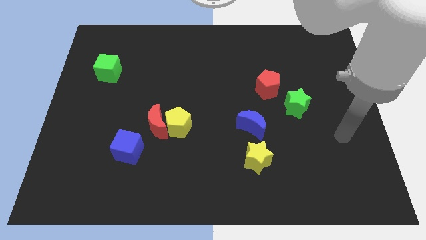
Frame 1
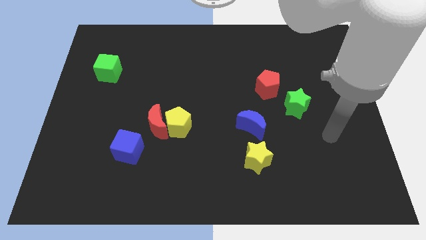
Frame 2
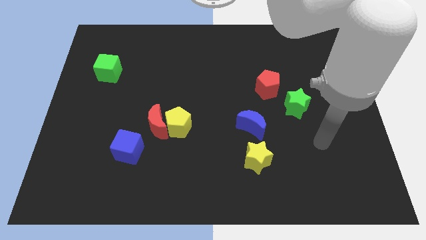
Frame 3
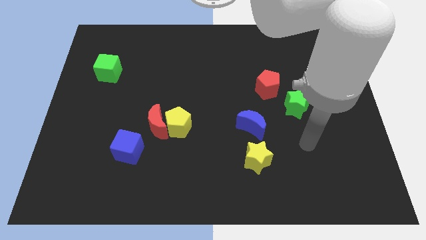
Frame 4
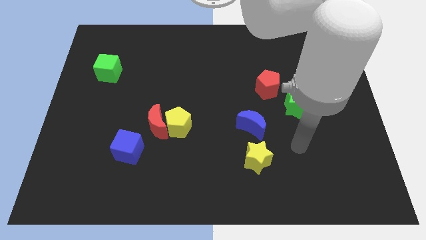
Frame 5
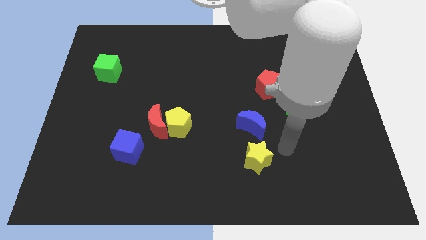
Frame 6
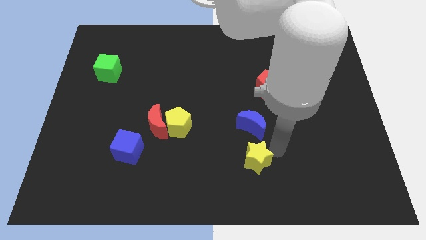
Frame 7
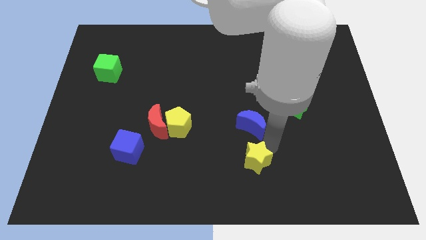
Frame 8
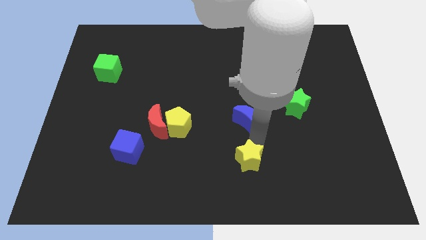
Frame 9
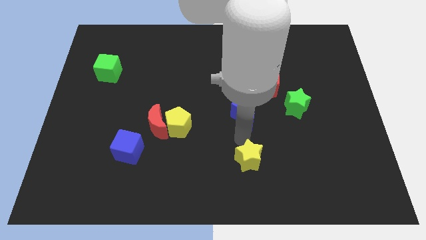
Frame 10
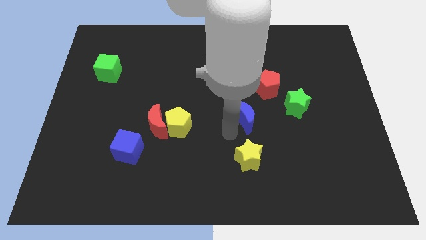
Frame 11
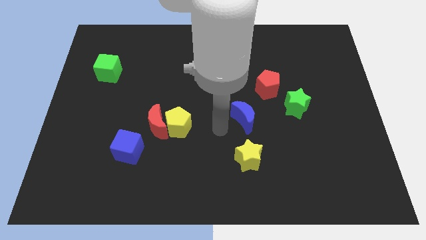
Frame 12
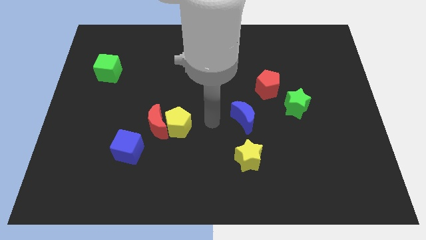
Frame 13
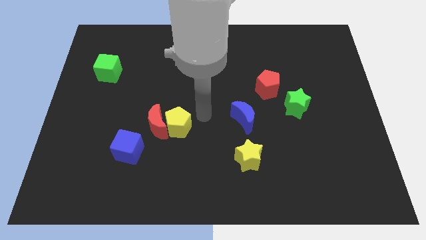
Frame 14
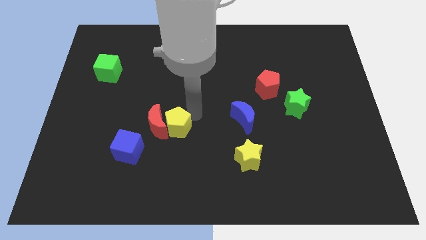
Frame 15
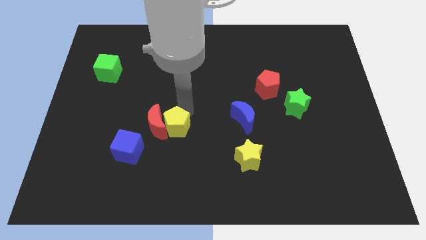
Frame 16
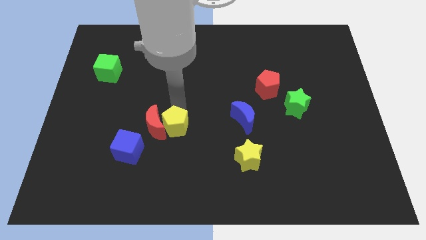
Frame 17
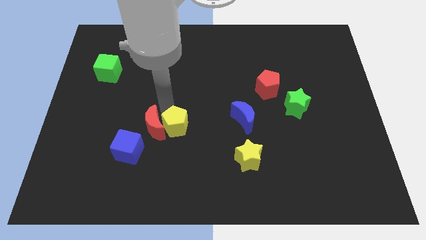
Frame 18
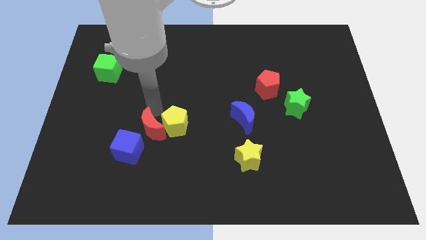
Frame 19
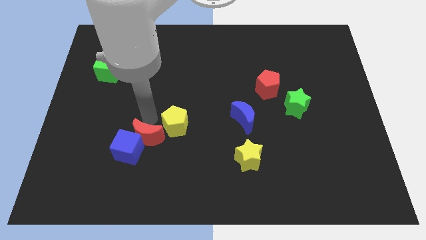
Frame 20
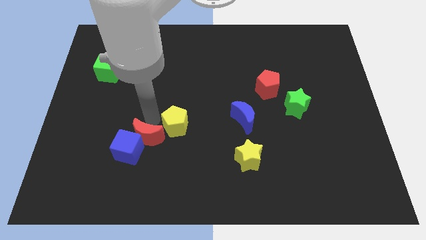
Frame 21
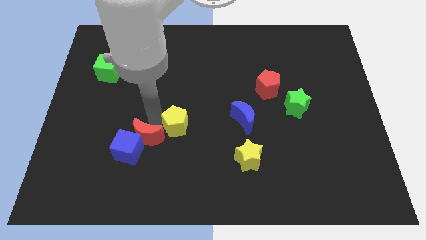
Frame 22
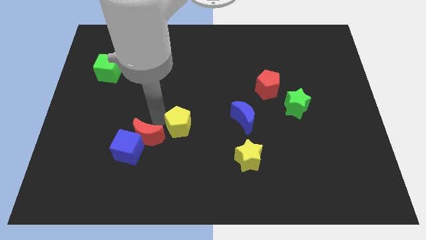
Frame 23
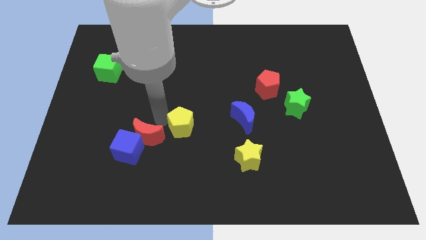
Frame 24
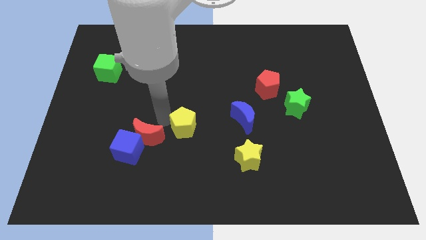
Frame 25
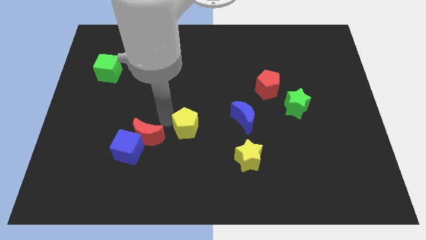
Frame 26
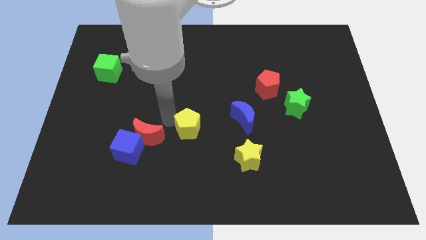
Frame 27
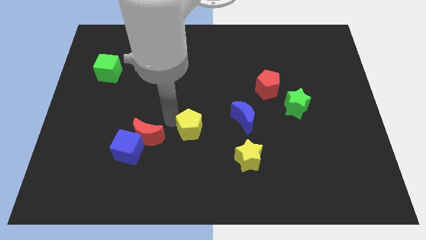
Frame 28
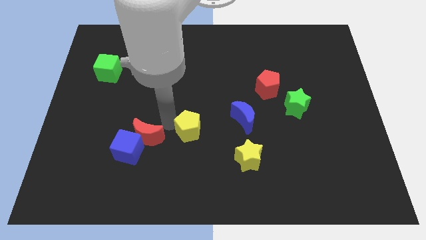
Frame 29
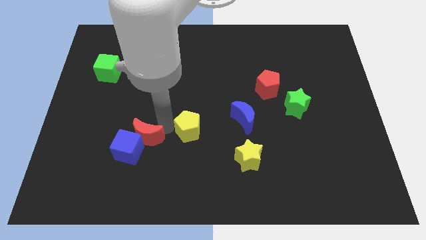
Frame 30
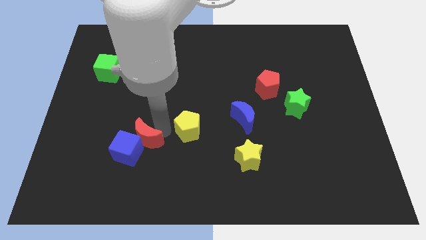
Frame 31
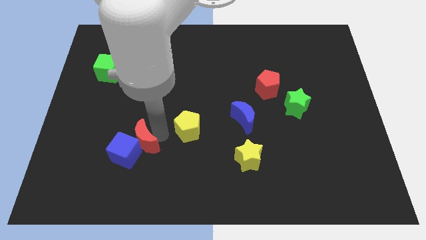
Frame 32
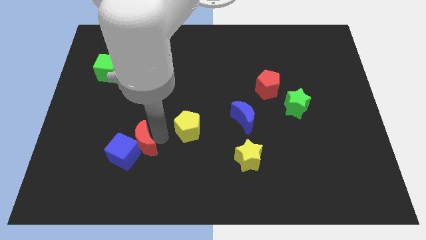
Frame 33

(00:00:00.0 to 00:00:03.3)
separate the yellow pentagon from the red moon

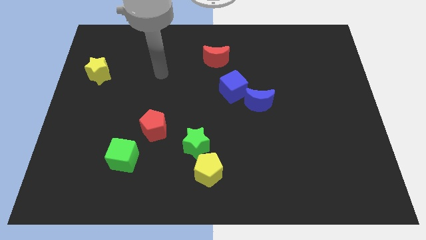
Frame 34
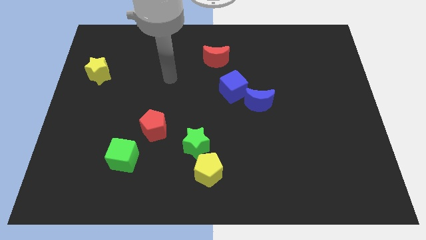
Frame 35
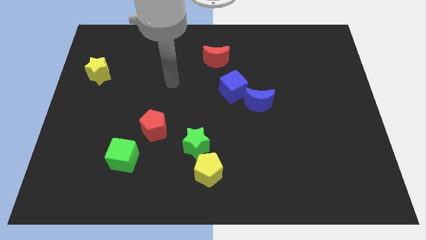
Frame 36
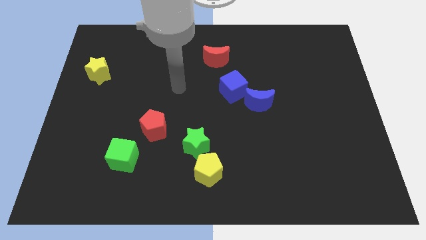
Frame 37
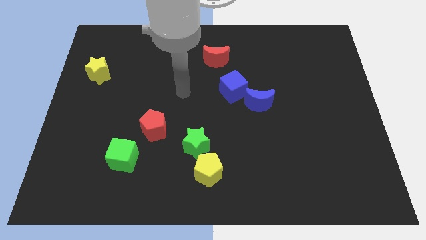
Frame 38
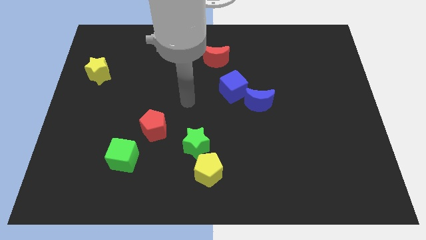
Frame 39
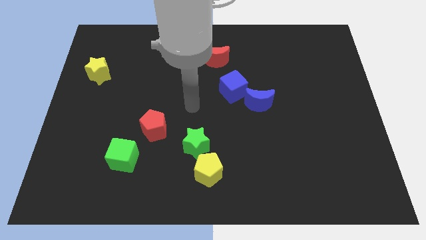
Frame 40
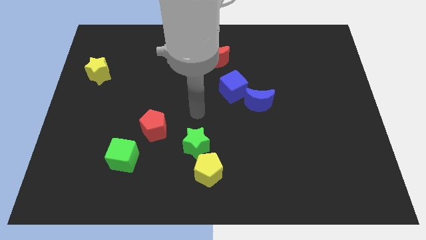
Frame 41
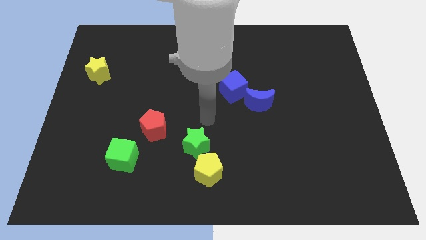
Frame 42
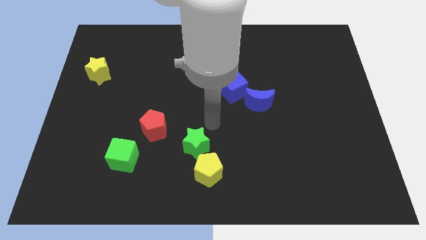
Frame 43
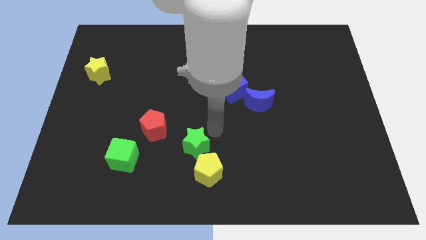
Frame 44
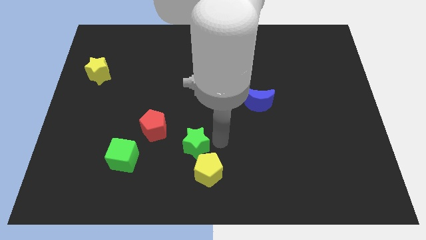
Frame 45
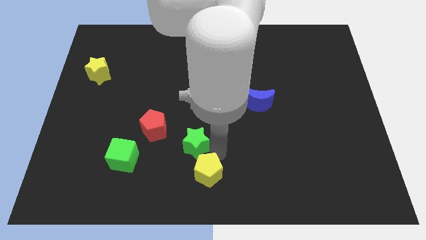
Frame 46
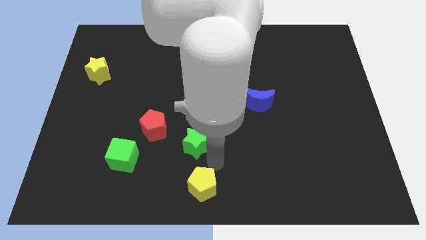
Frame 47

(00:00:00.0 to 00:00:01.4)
pull the green star apart from the yellow pentagon

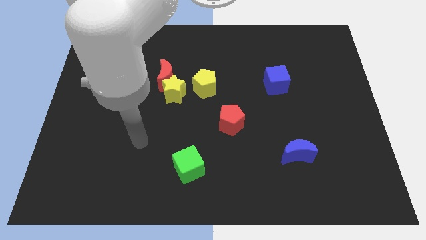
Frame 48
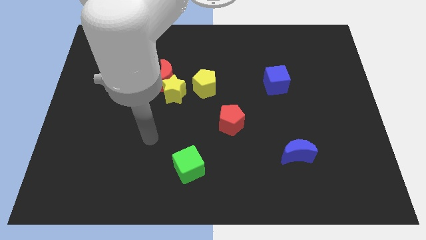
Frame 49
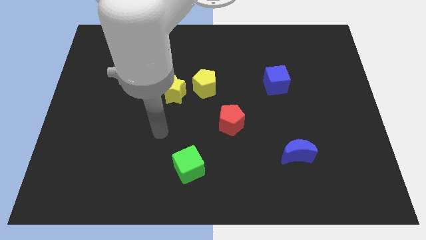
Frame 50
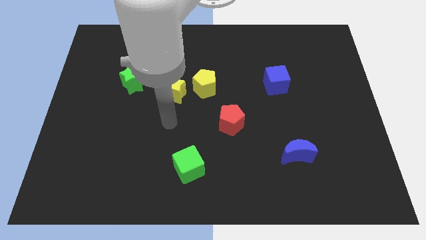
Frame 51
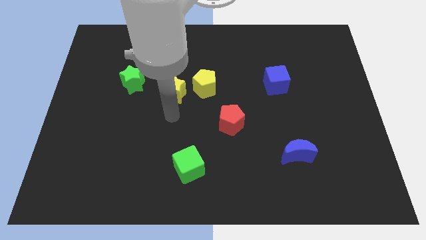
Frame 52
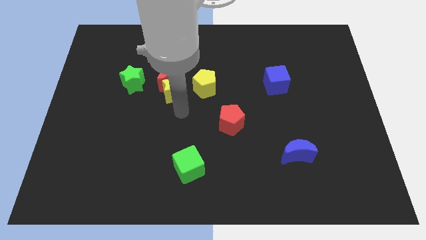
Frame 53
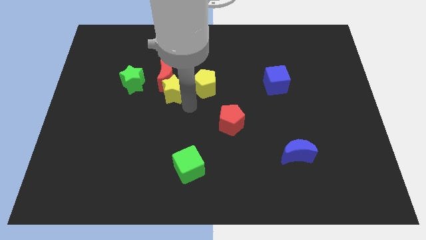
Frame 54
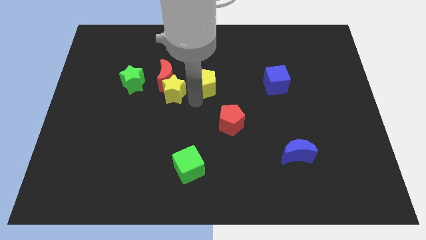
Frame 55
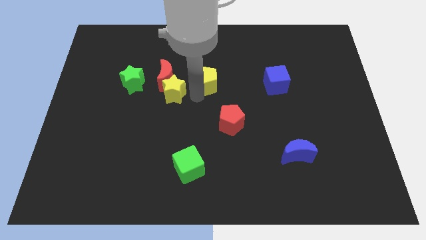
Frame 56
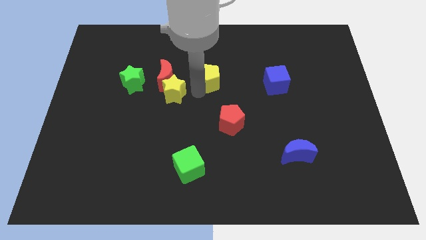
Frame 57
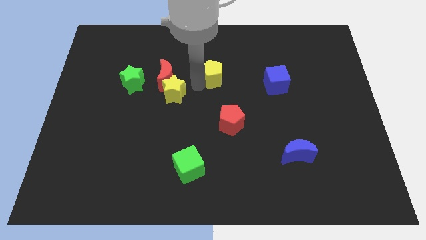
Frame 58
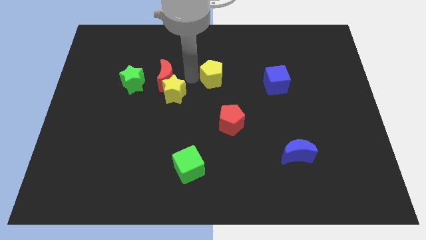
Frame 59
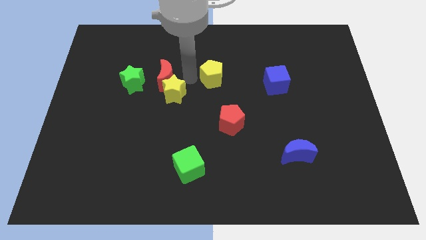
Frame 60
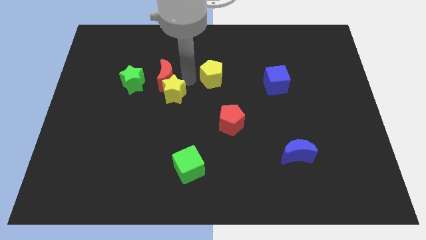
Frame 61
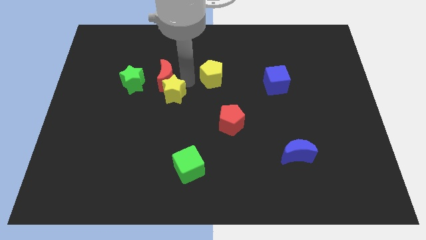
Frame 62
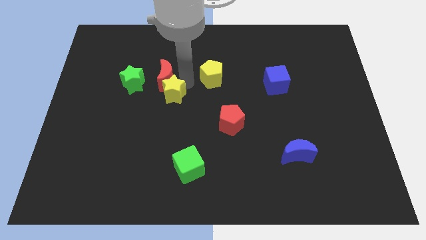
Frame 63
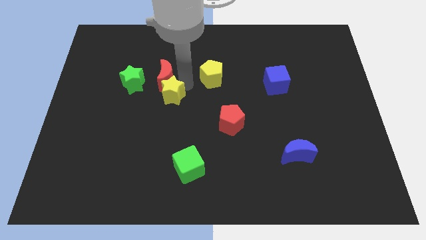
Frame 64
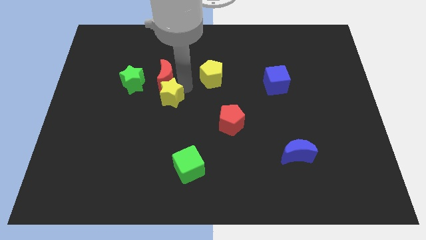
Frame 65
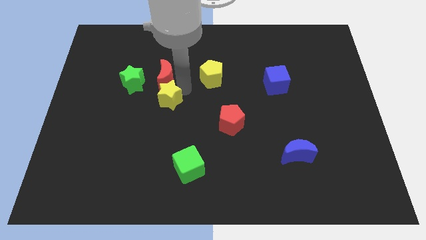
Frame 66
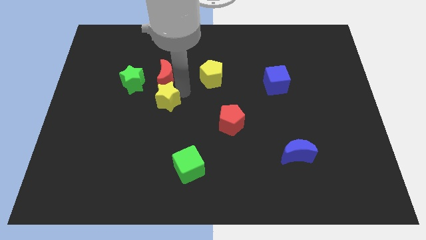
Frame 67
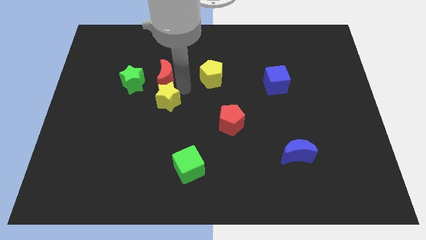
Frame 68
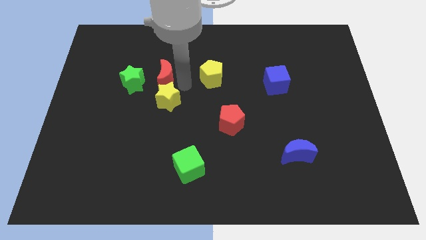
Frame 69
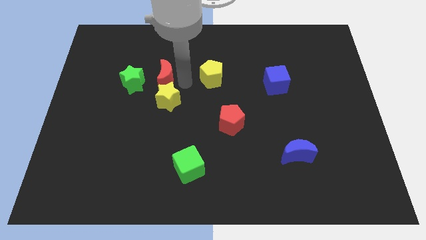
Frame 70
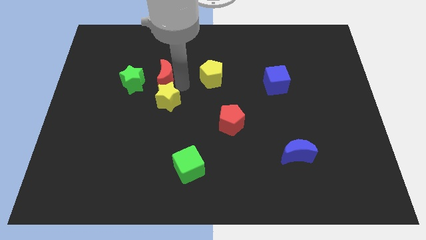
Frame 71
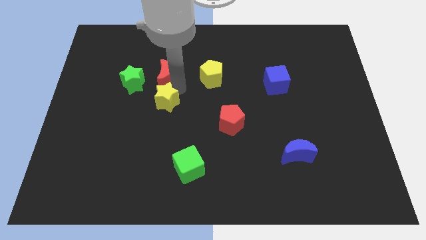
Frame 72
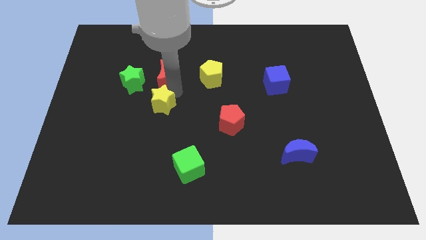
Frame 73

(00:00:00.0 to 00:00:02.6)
separate the yellow star from the red moon and yellow pentagon

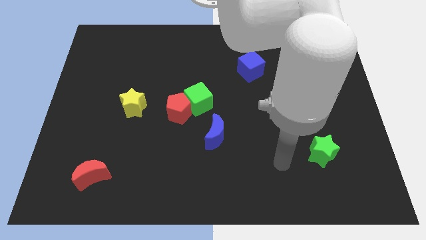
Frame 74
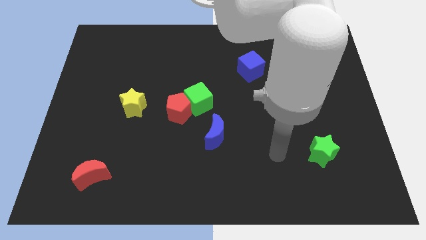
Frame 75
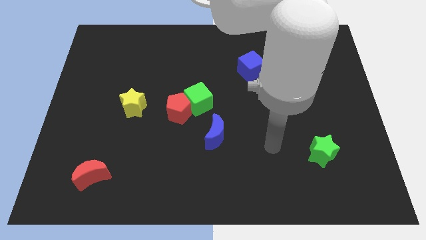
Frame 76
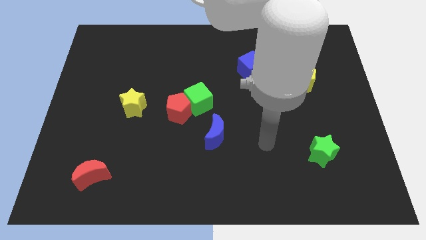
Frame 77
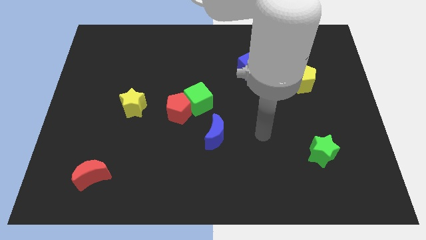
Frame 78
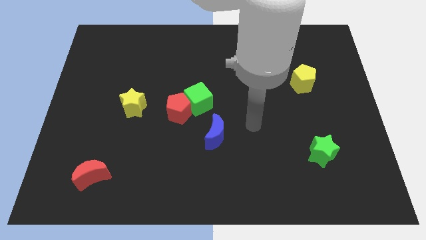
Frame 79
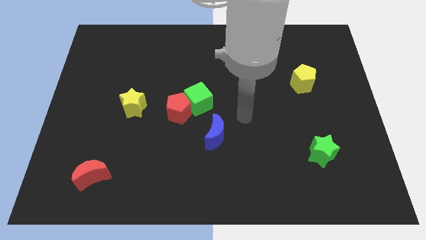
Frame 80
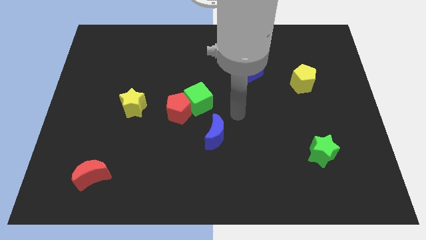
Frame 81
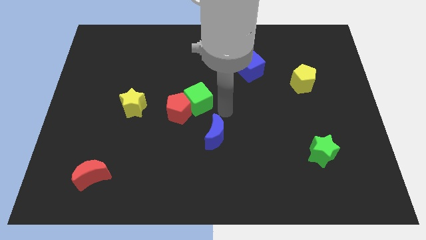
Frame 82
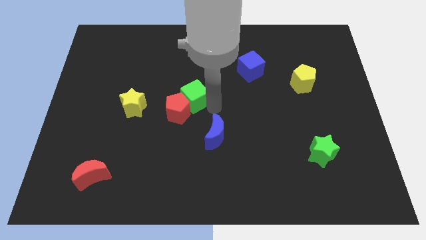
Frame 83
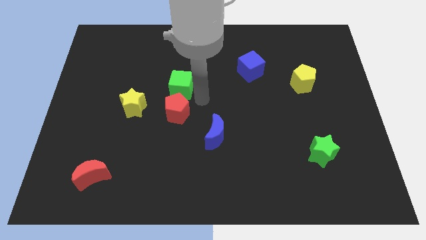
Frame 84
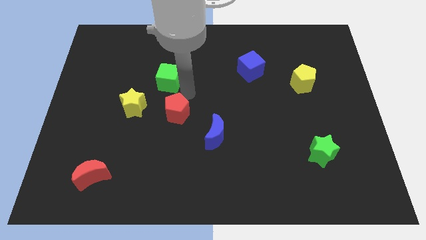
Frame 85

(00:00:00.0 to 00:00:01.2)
pull the red pentagon apart from the green cube

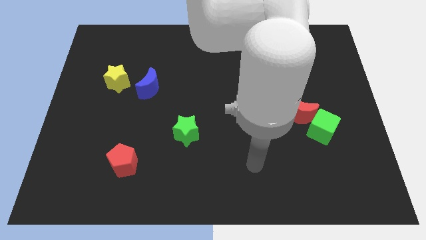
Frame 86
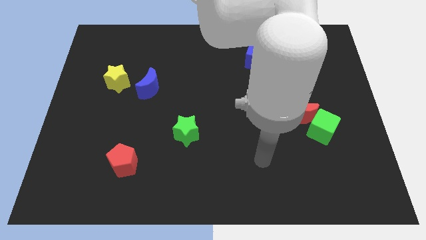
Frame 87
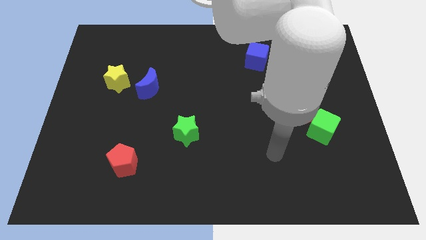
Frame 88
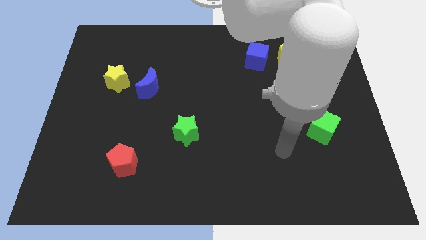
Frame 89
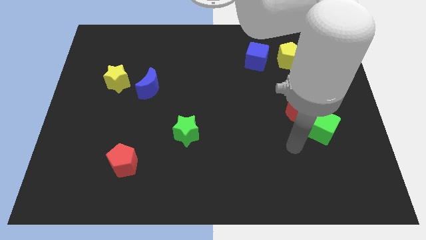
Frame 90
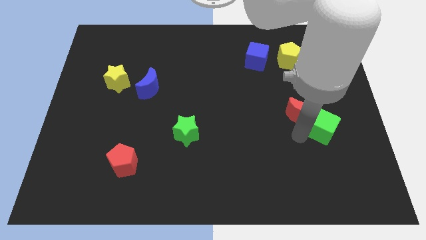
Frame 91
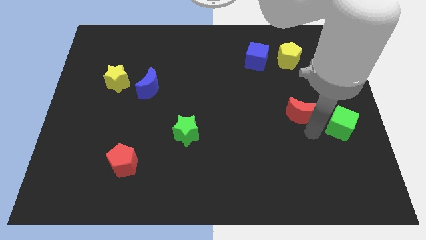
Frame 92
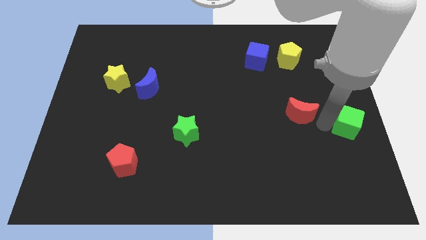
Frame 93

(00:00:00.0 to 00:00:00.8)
separate the red moon from the green cube
